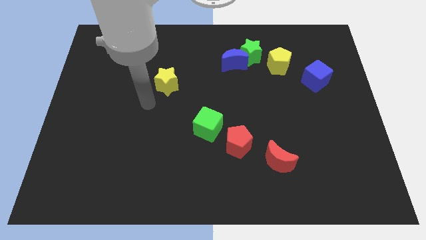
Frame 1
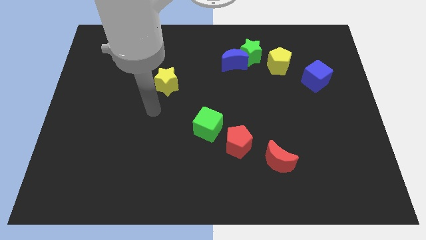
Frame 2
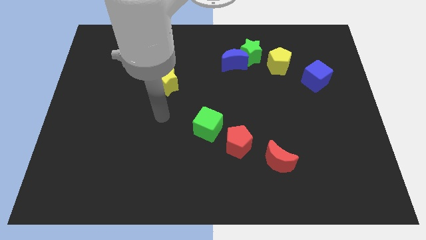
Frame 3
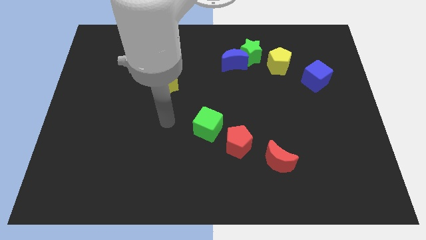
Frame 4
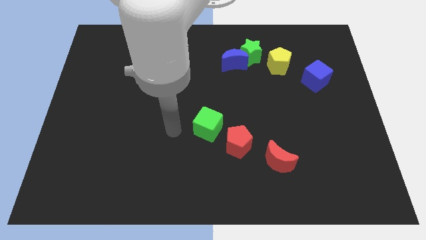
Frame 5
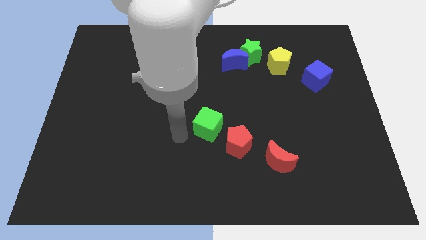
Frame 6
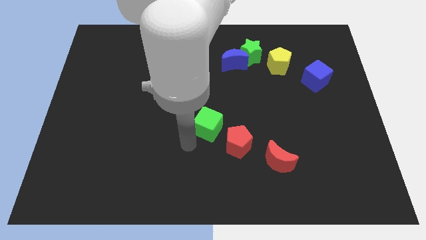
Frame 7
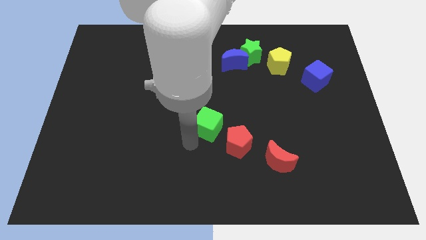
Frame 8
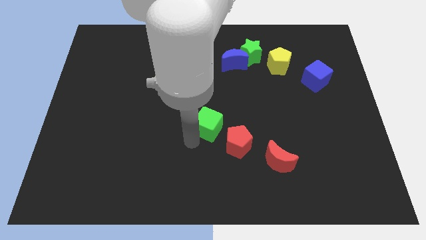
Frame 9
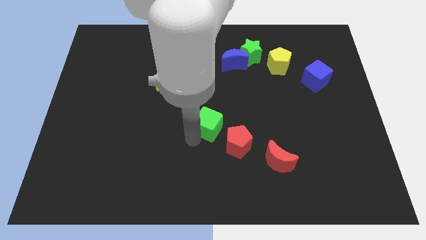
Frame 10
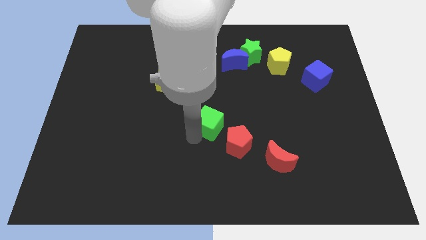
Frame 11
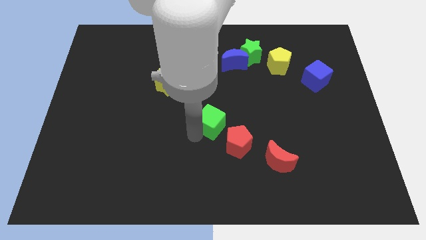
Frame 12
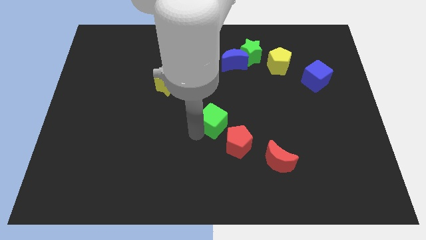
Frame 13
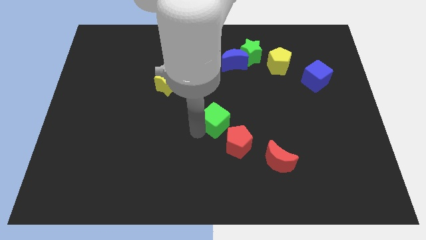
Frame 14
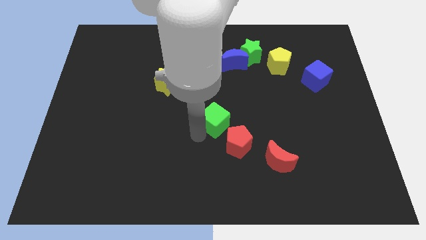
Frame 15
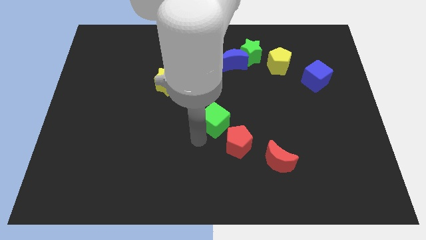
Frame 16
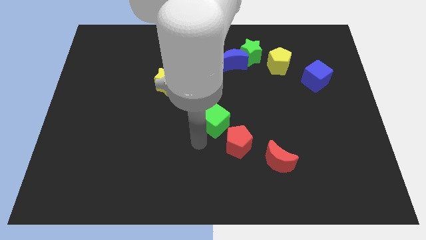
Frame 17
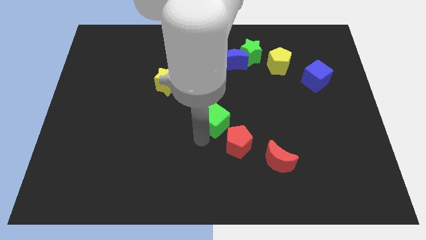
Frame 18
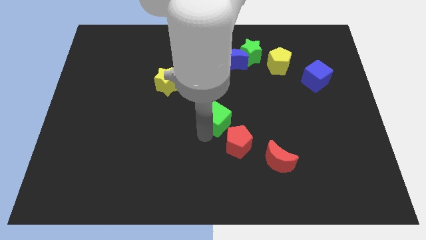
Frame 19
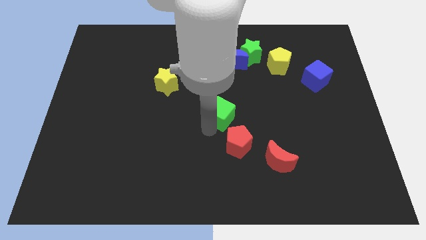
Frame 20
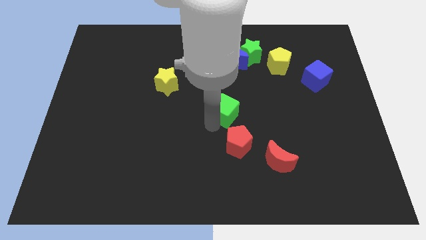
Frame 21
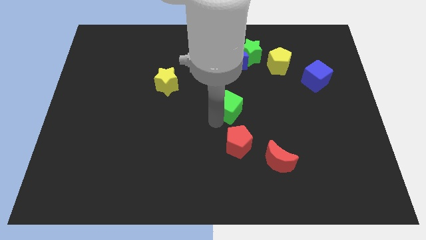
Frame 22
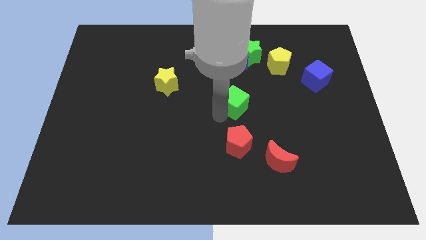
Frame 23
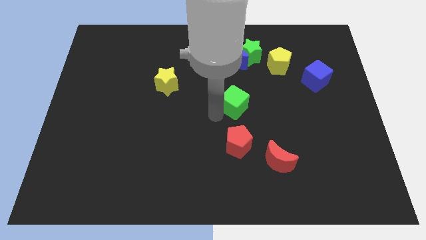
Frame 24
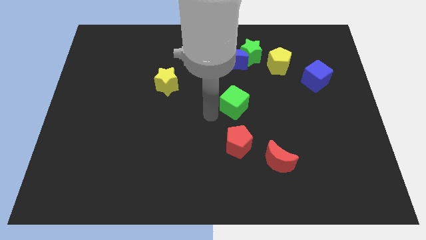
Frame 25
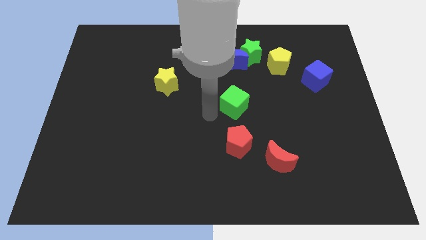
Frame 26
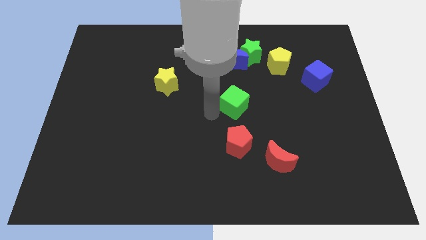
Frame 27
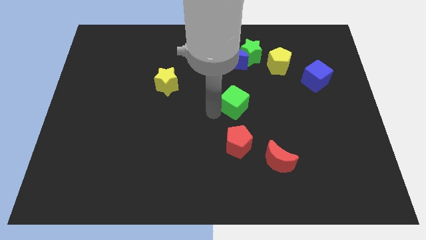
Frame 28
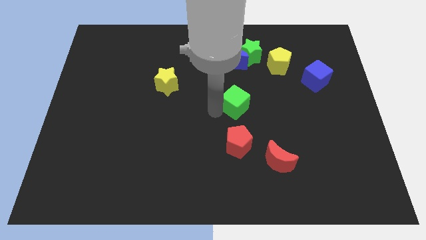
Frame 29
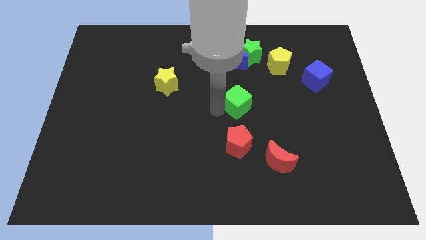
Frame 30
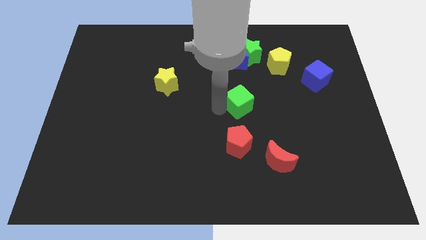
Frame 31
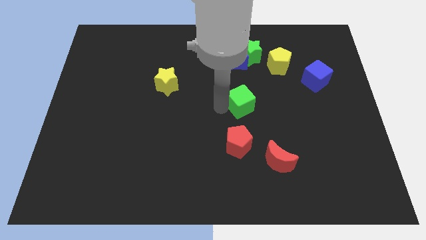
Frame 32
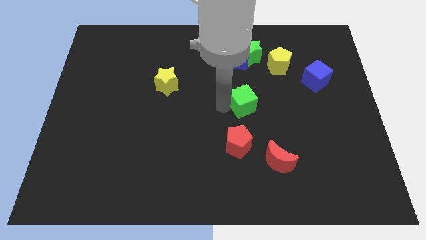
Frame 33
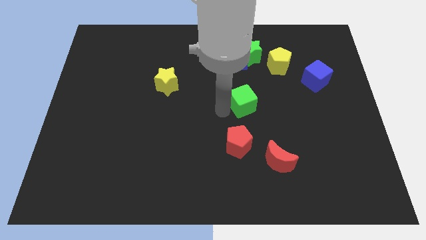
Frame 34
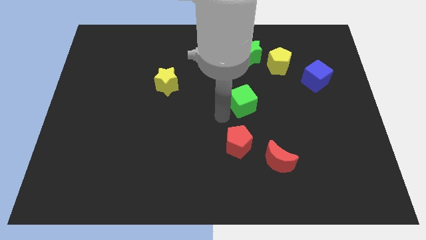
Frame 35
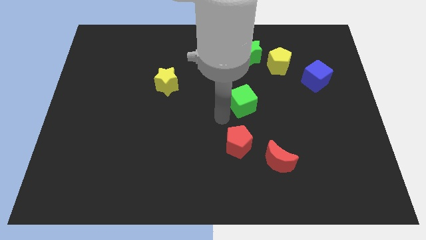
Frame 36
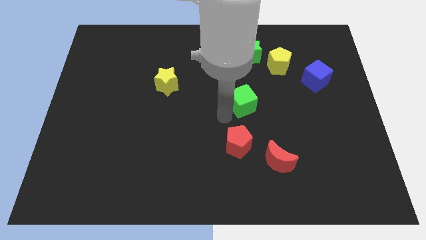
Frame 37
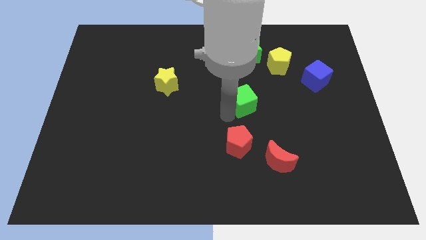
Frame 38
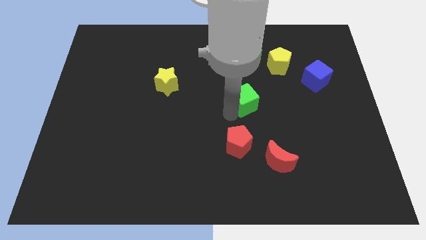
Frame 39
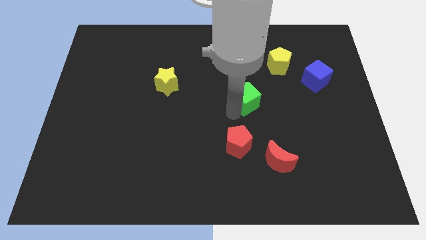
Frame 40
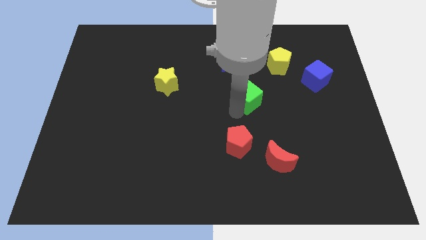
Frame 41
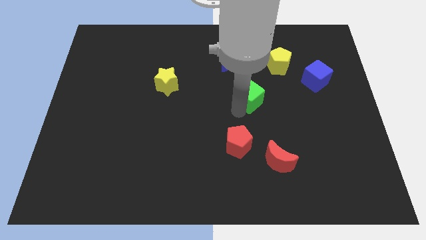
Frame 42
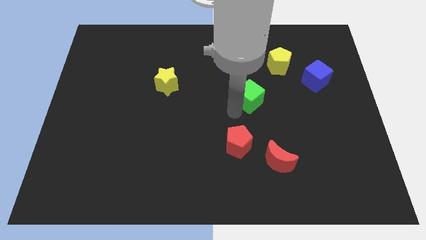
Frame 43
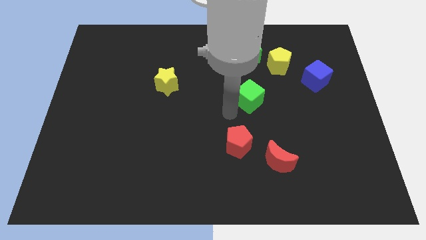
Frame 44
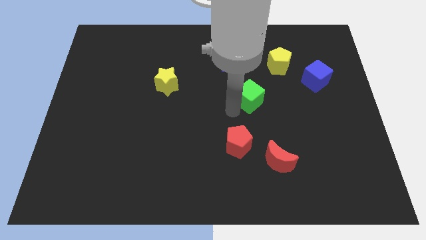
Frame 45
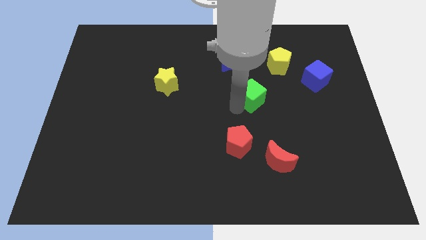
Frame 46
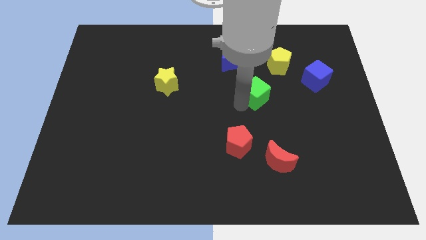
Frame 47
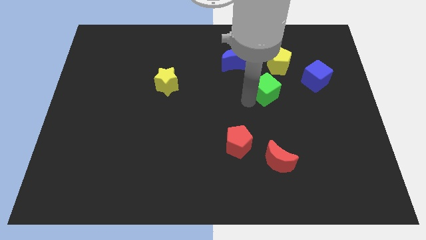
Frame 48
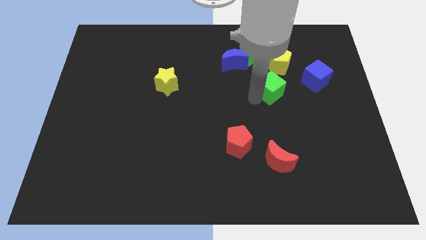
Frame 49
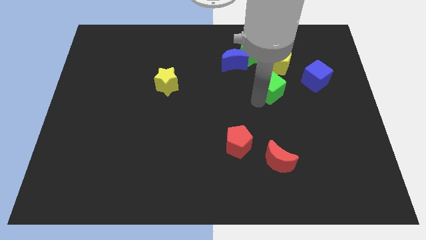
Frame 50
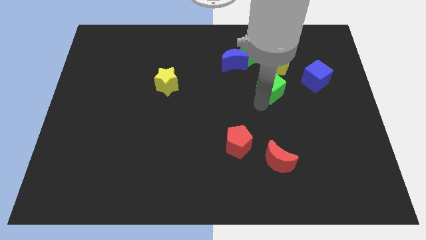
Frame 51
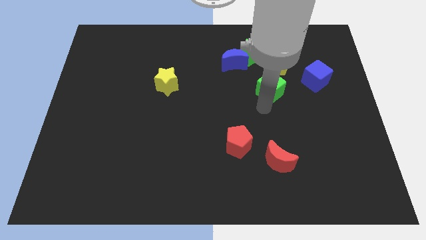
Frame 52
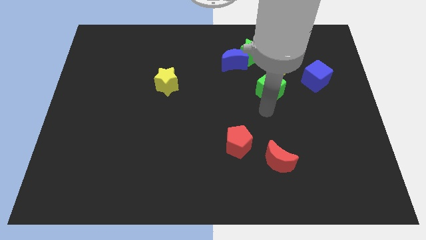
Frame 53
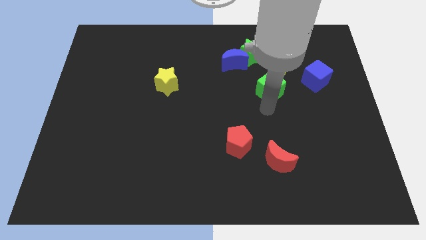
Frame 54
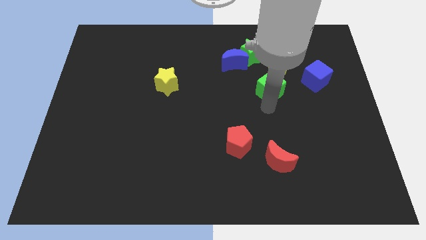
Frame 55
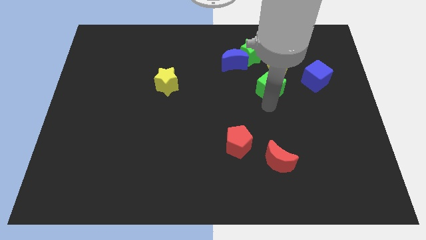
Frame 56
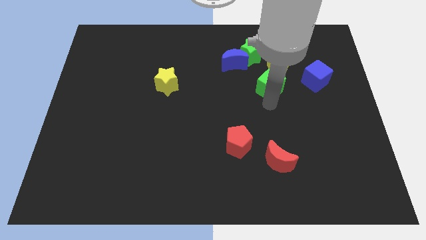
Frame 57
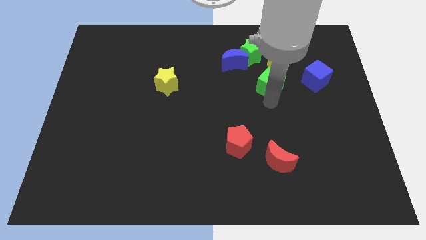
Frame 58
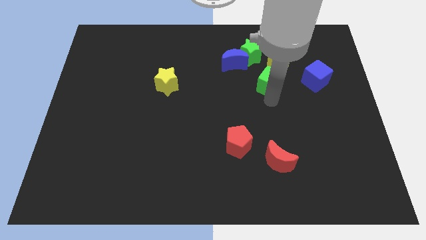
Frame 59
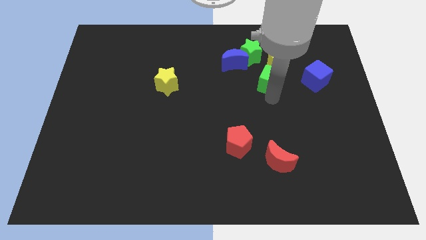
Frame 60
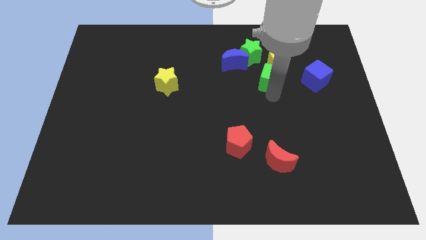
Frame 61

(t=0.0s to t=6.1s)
put the green cube to the yellow pentagon
